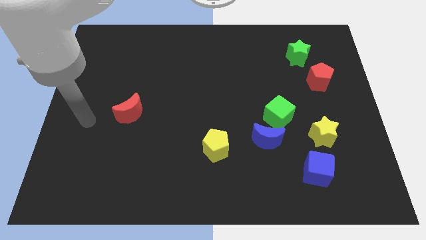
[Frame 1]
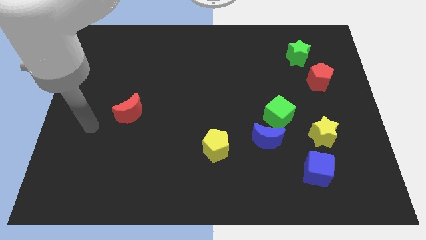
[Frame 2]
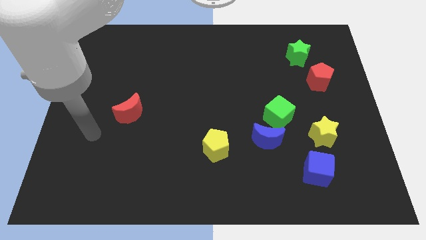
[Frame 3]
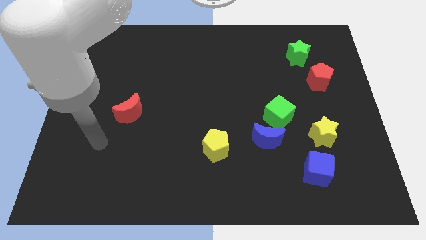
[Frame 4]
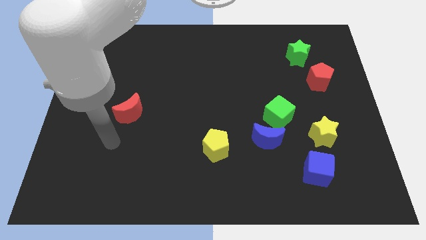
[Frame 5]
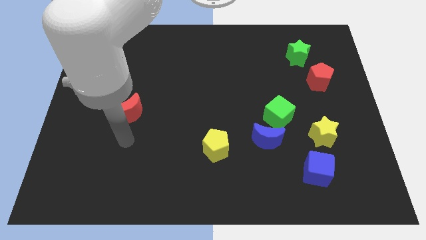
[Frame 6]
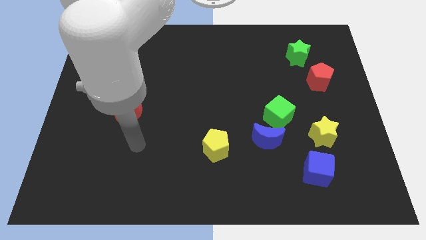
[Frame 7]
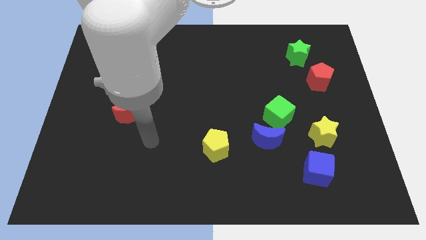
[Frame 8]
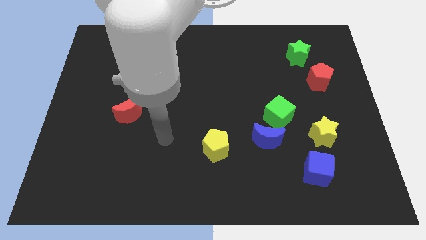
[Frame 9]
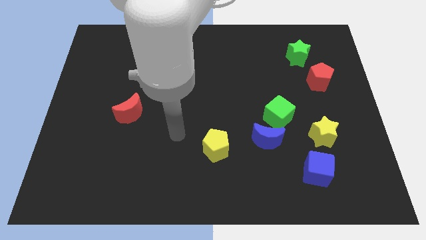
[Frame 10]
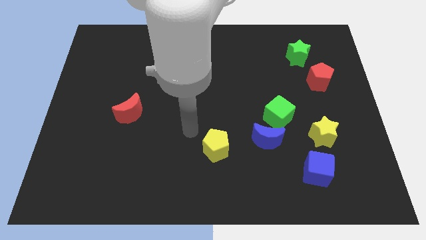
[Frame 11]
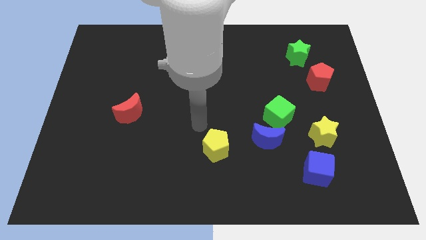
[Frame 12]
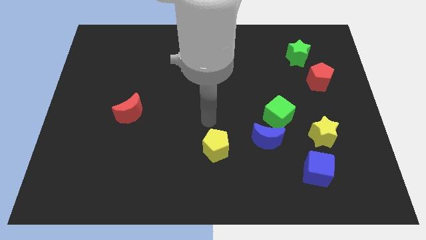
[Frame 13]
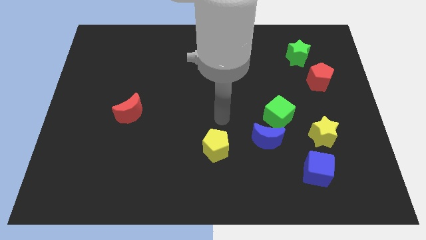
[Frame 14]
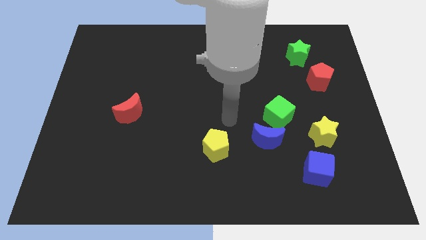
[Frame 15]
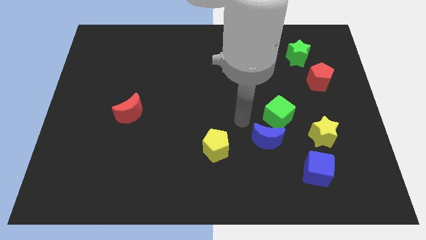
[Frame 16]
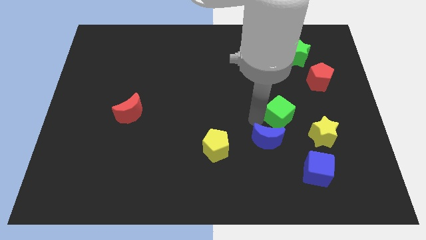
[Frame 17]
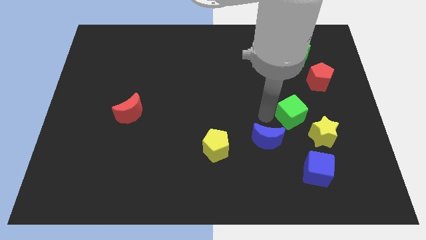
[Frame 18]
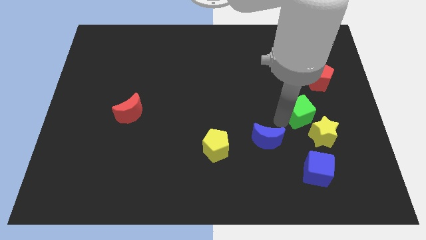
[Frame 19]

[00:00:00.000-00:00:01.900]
separate the blue moon from the green cube

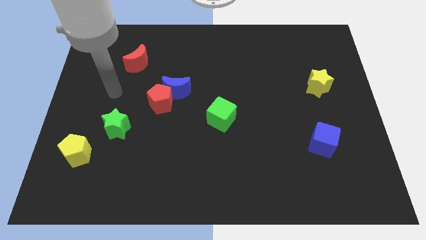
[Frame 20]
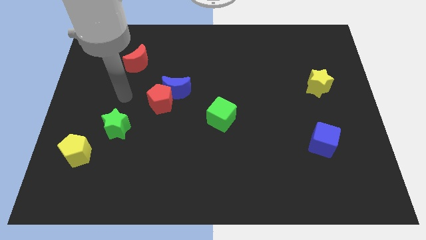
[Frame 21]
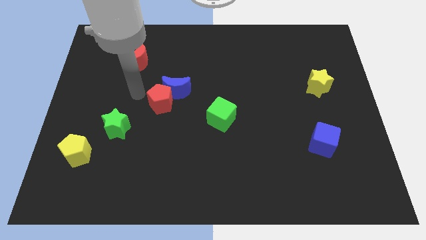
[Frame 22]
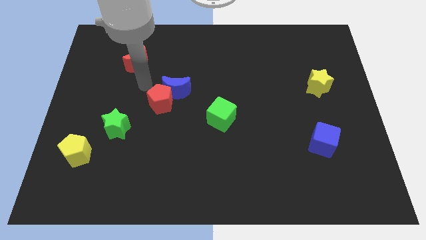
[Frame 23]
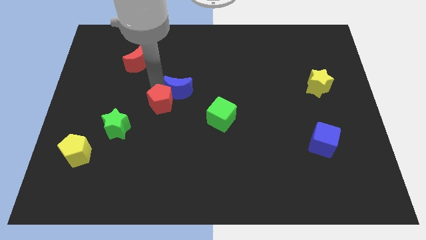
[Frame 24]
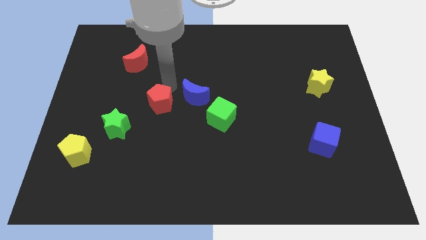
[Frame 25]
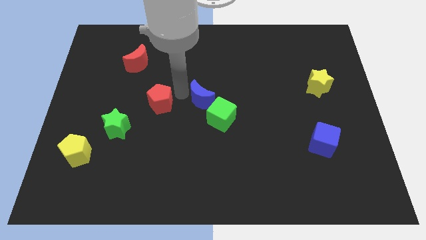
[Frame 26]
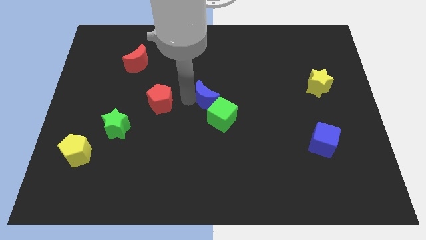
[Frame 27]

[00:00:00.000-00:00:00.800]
pull the red pentagon apart from the blue moon

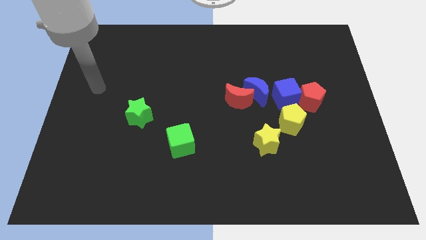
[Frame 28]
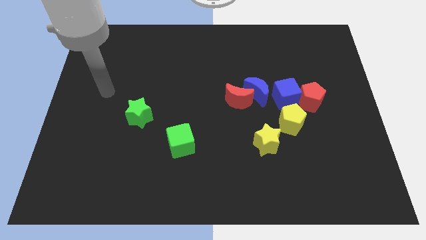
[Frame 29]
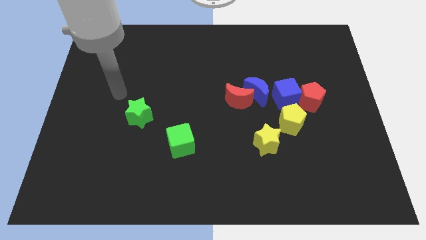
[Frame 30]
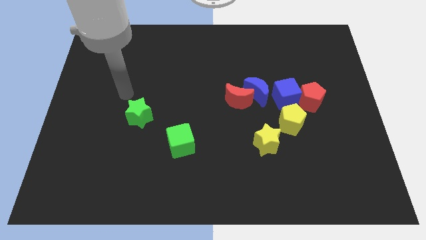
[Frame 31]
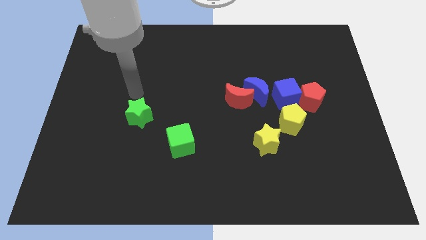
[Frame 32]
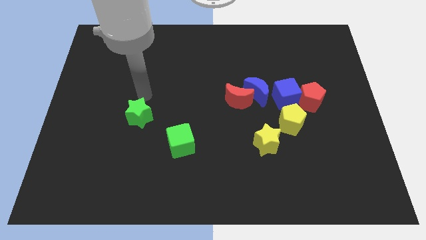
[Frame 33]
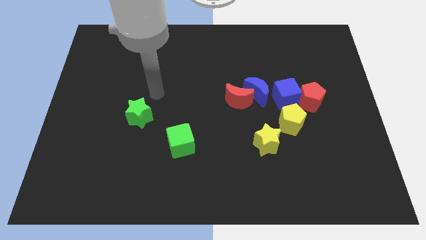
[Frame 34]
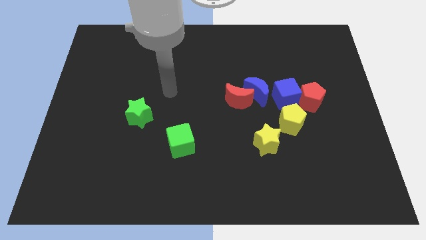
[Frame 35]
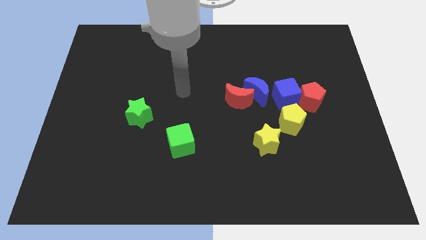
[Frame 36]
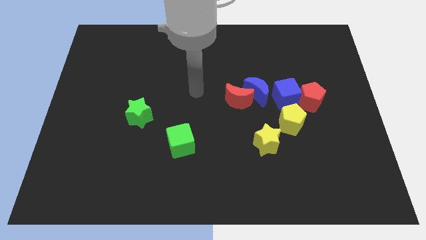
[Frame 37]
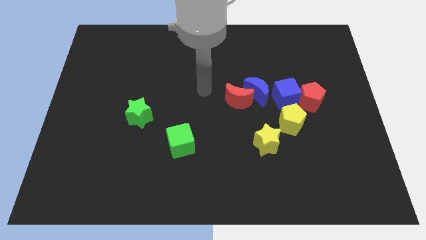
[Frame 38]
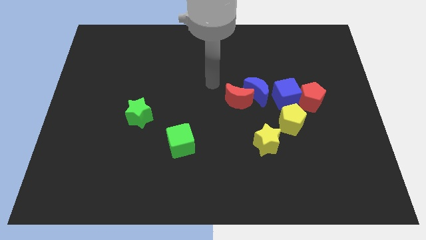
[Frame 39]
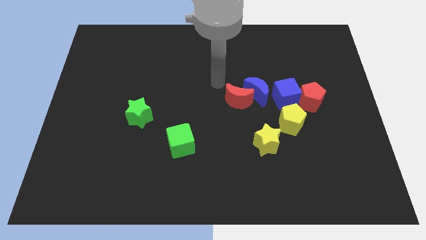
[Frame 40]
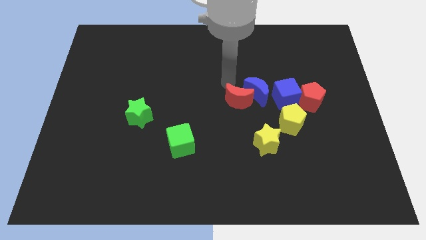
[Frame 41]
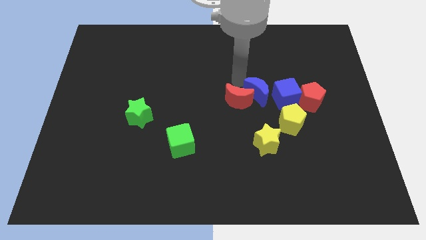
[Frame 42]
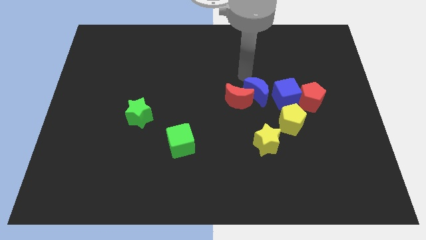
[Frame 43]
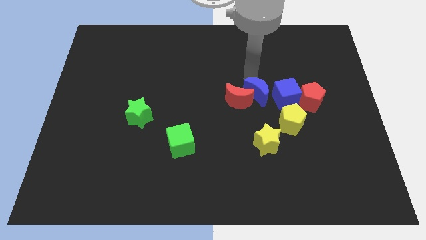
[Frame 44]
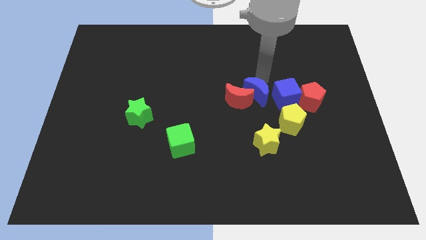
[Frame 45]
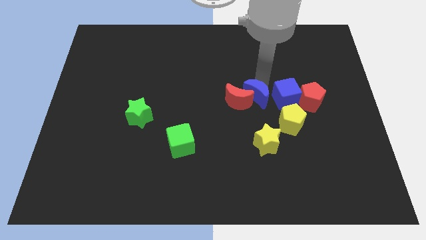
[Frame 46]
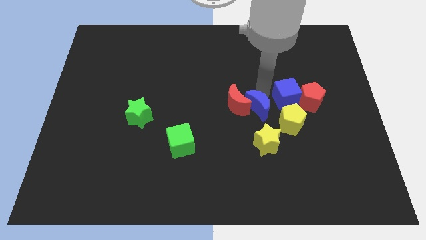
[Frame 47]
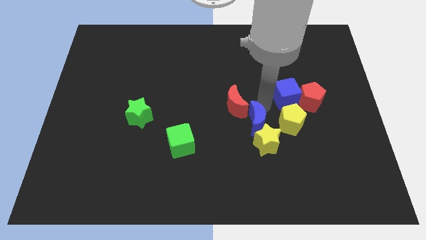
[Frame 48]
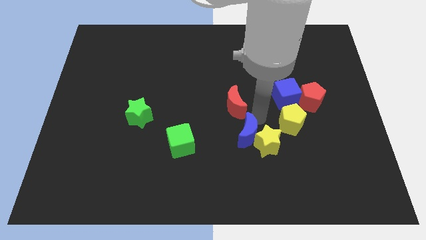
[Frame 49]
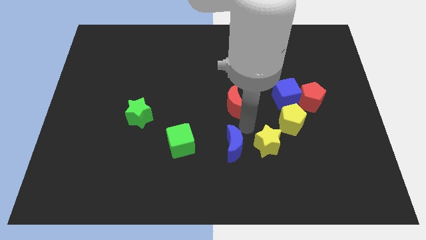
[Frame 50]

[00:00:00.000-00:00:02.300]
move the red moon away from the blue moon

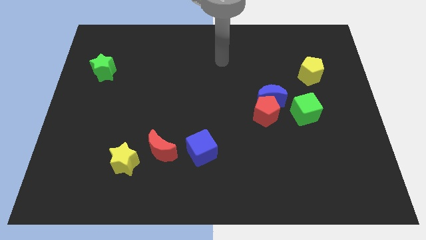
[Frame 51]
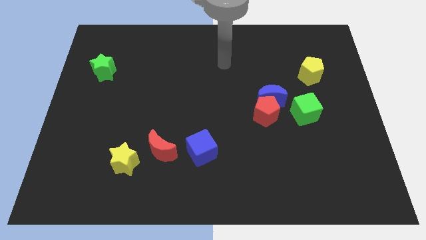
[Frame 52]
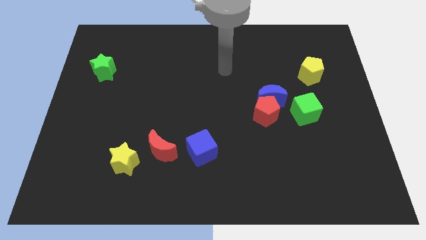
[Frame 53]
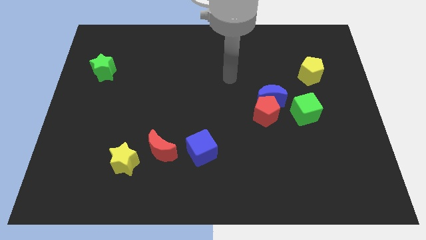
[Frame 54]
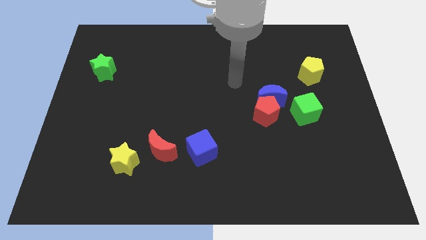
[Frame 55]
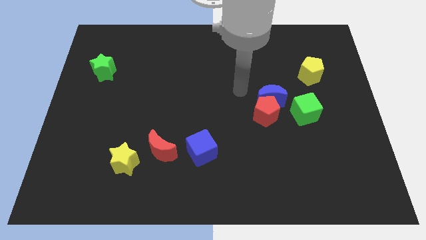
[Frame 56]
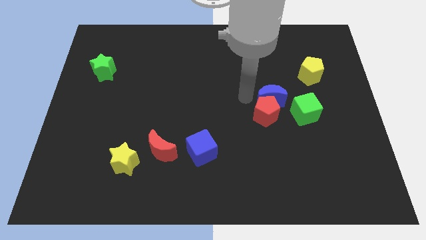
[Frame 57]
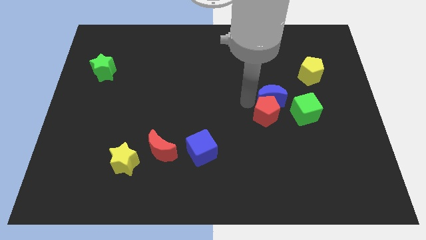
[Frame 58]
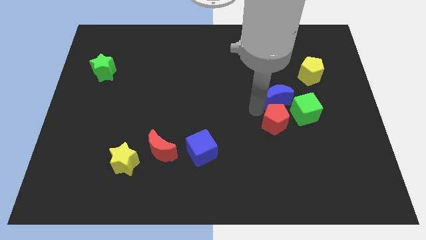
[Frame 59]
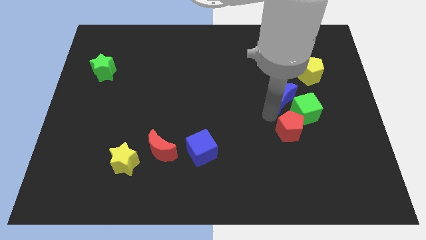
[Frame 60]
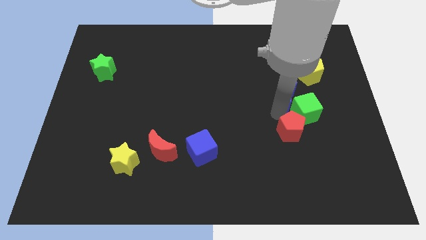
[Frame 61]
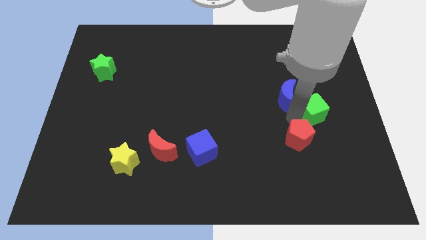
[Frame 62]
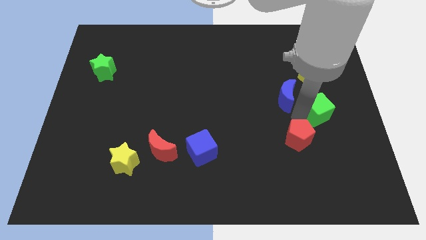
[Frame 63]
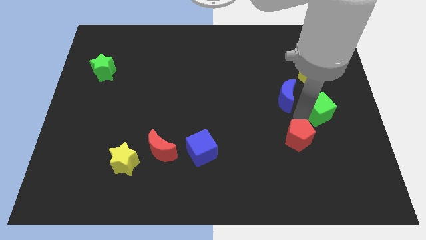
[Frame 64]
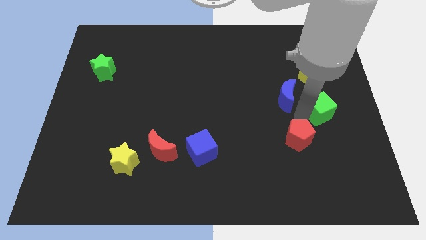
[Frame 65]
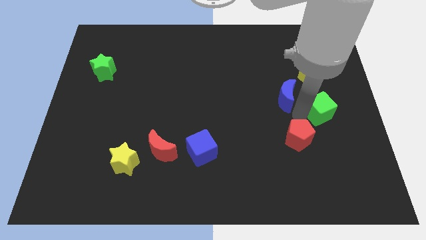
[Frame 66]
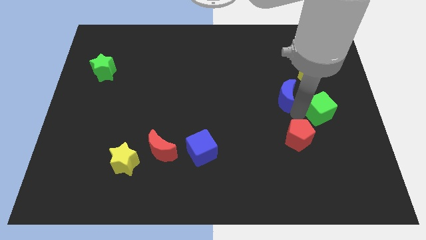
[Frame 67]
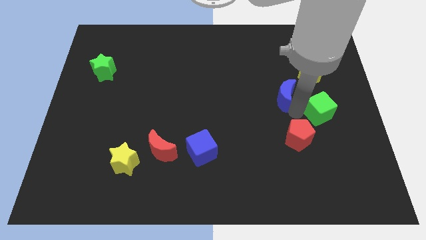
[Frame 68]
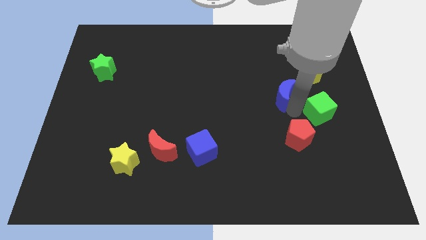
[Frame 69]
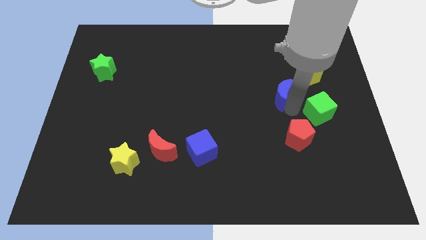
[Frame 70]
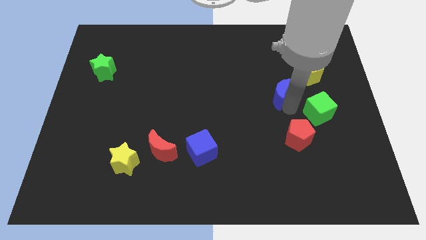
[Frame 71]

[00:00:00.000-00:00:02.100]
separate the blue moon from the red pentagon and green cube

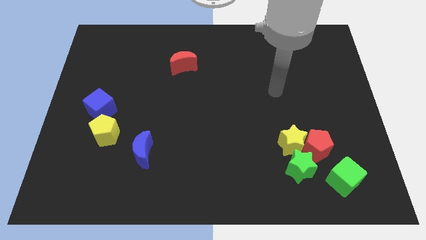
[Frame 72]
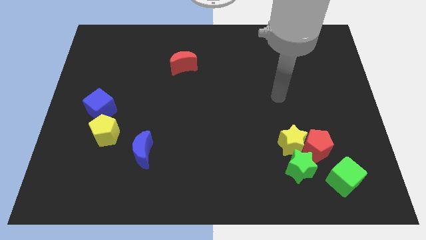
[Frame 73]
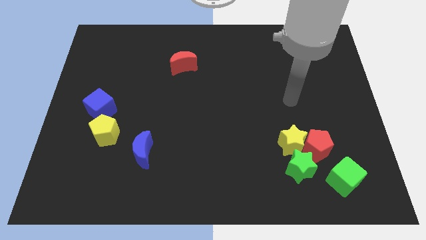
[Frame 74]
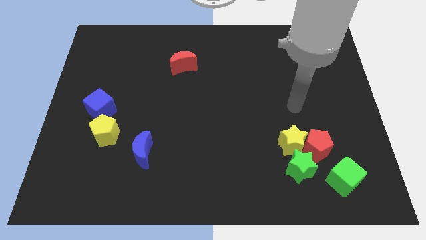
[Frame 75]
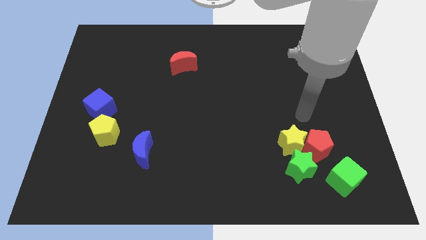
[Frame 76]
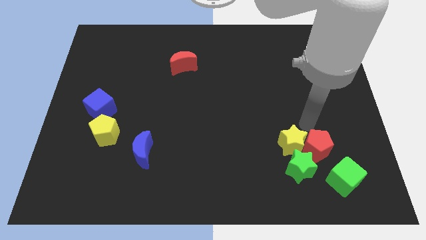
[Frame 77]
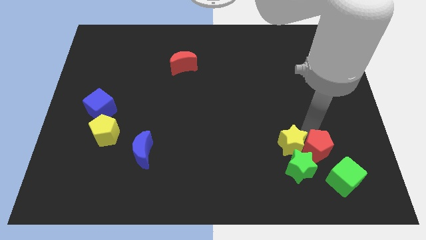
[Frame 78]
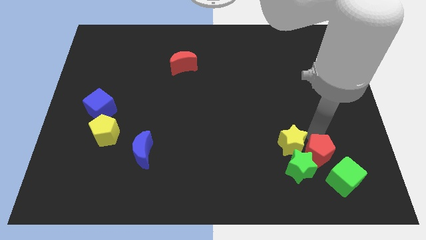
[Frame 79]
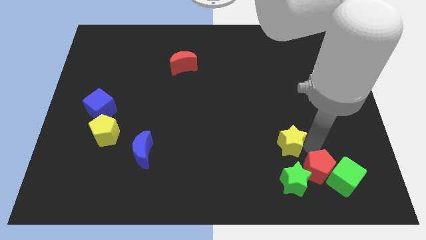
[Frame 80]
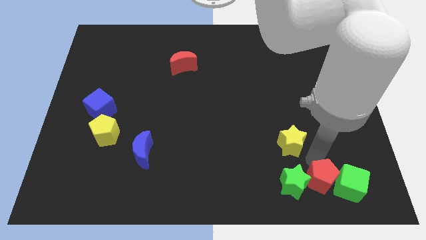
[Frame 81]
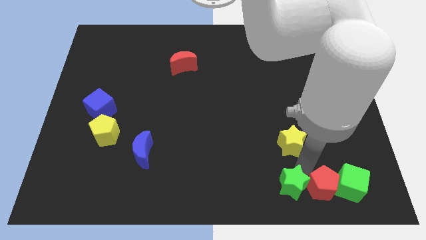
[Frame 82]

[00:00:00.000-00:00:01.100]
pull the yellow star apart from the red pentagon and green star

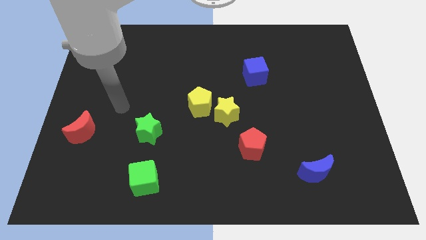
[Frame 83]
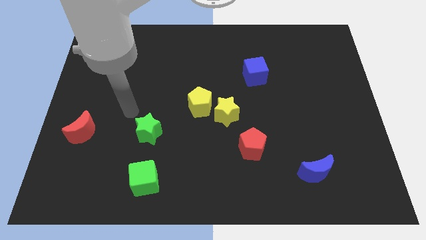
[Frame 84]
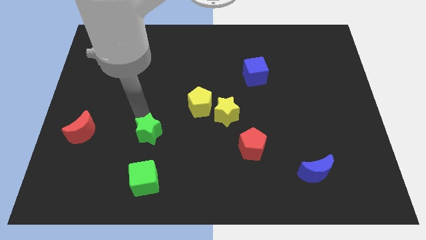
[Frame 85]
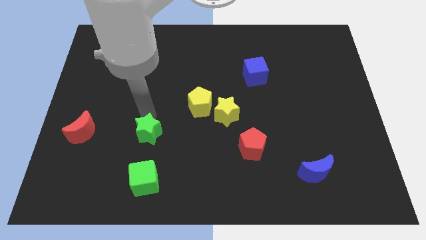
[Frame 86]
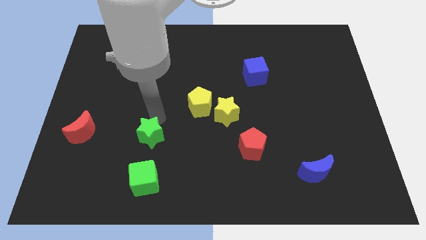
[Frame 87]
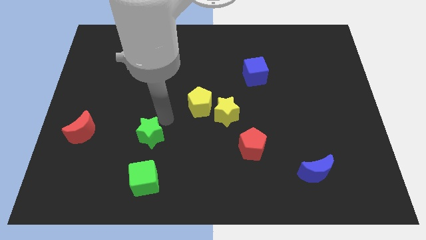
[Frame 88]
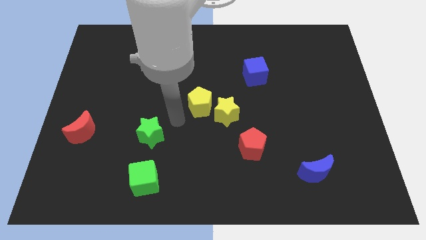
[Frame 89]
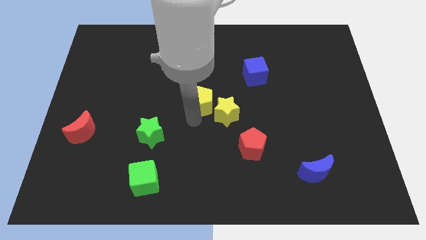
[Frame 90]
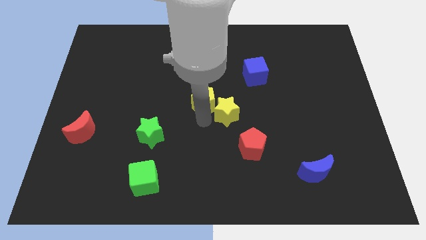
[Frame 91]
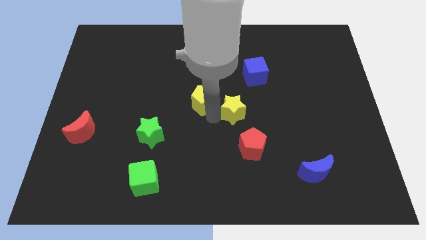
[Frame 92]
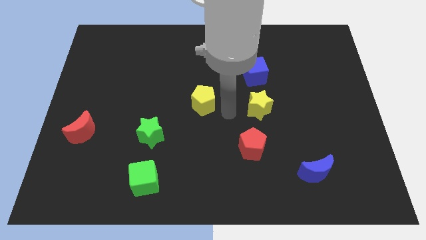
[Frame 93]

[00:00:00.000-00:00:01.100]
move the yellow pentagon away from the yellow star
